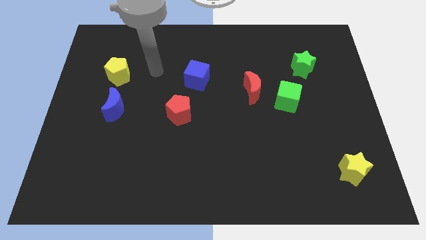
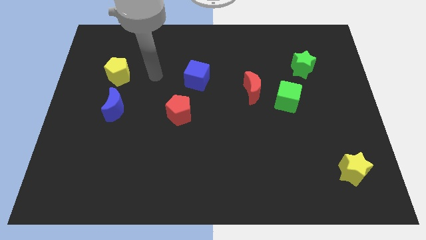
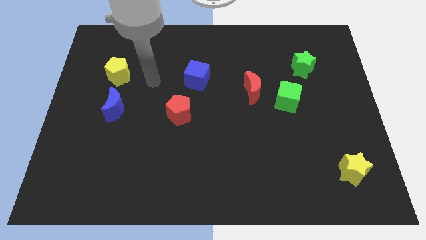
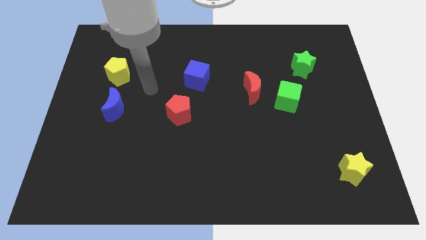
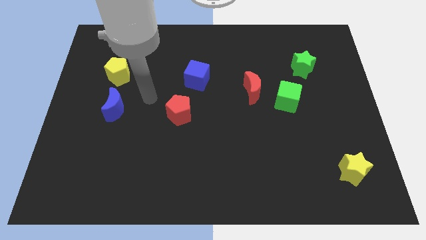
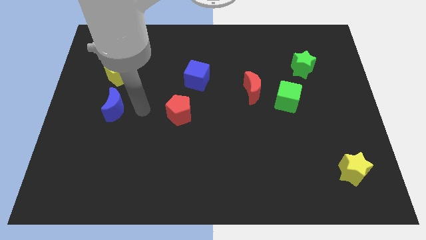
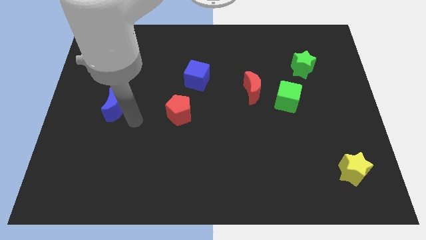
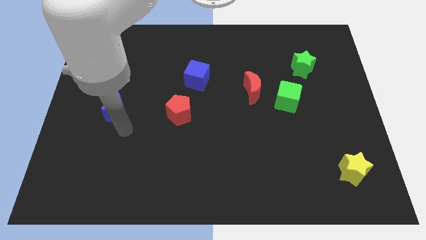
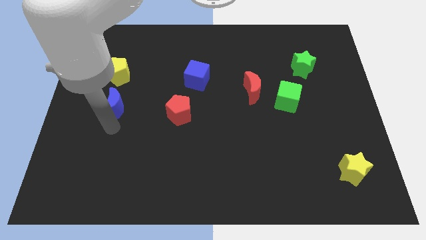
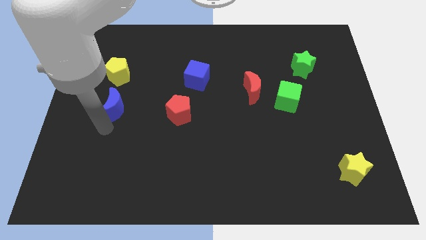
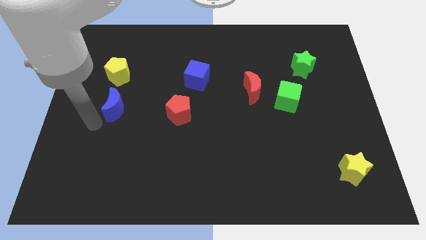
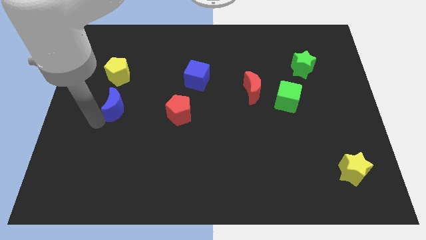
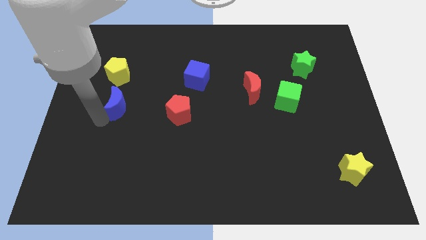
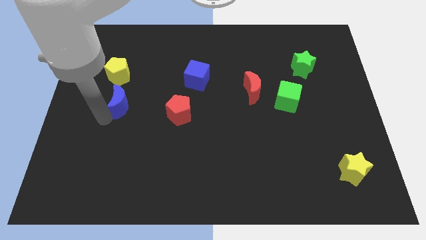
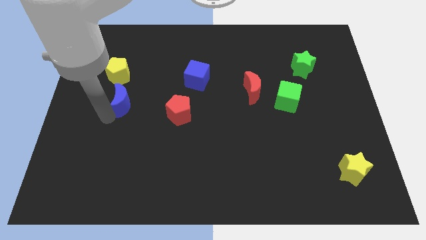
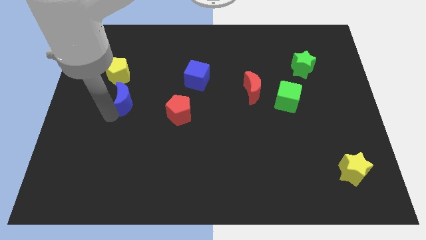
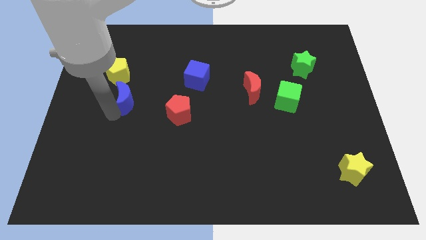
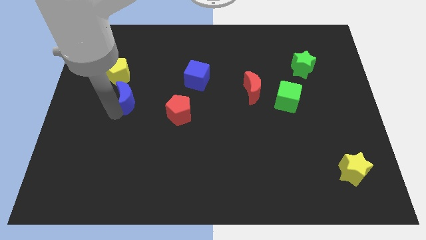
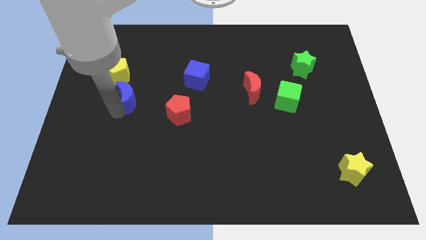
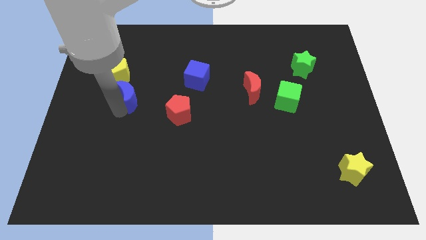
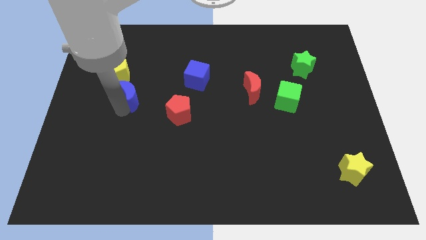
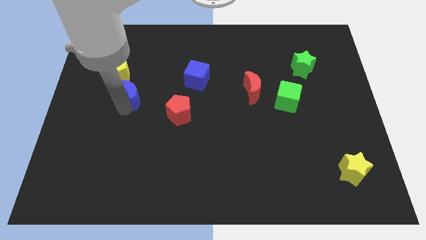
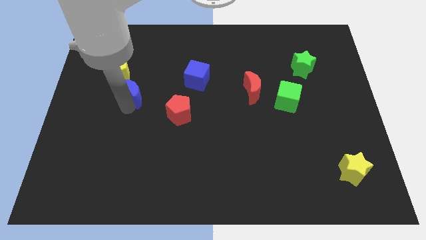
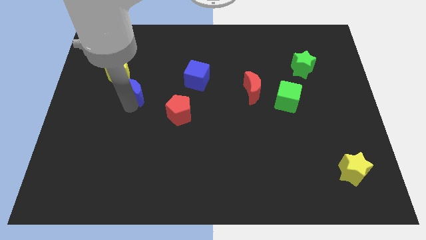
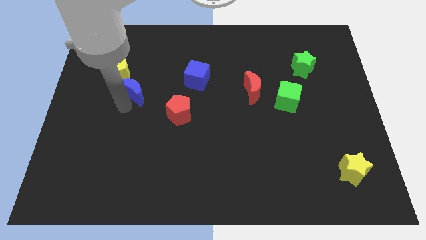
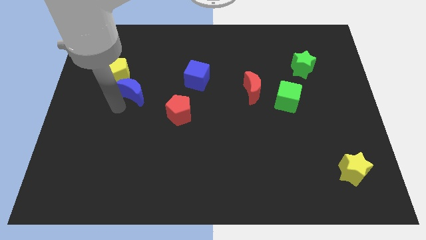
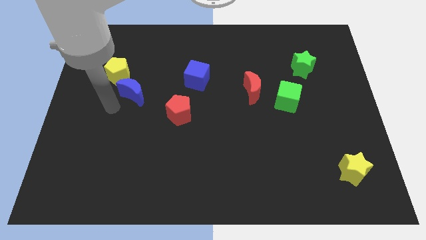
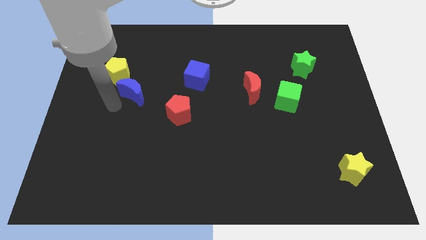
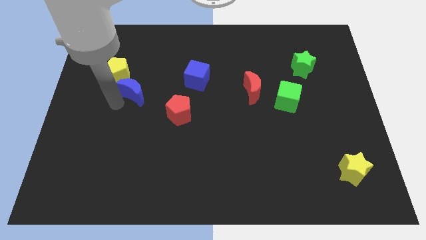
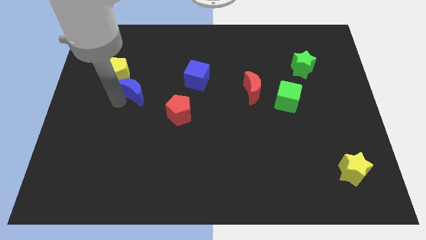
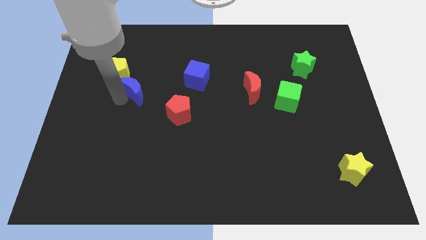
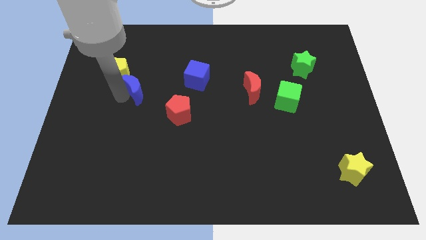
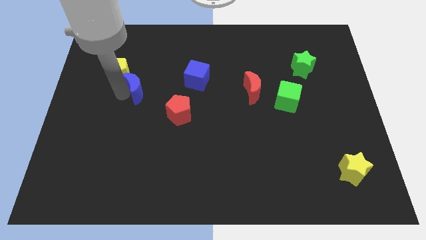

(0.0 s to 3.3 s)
move the blue moon a little up and to the right

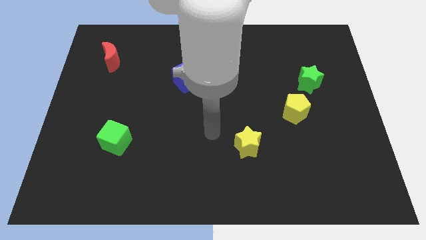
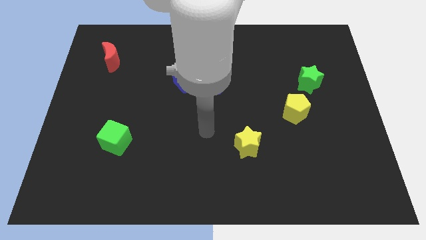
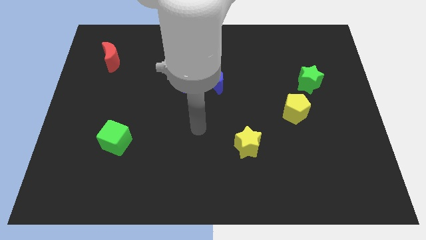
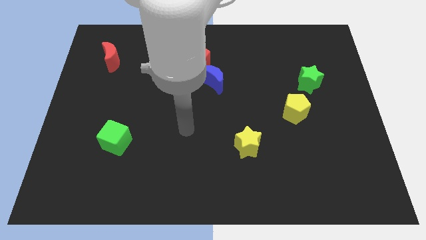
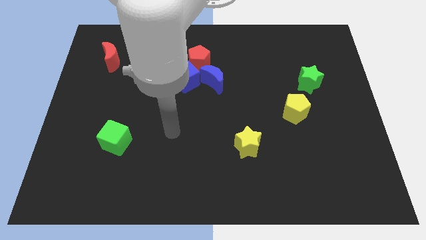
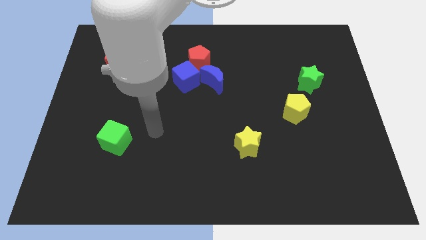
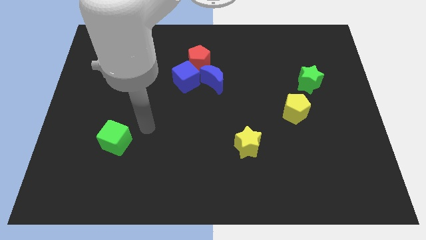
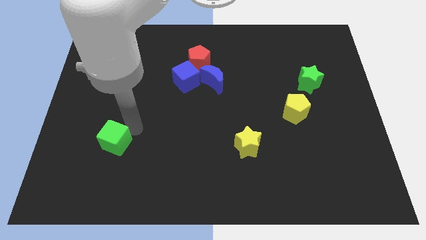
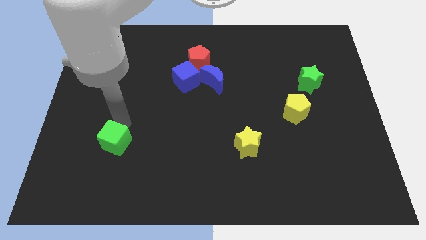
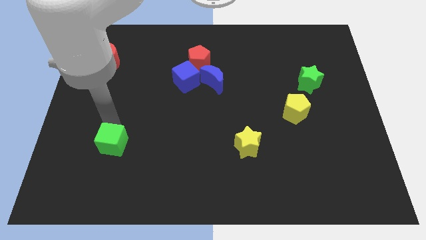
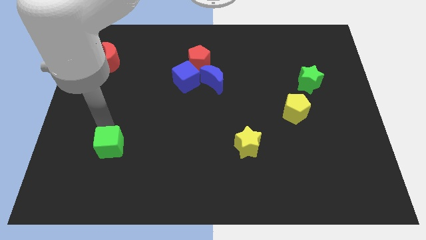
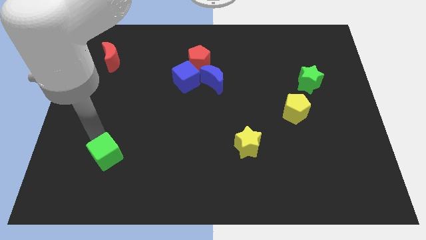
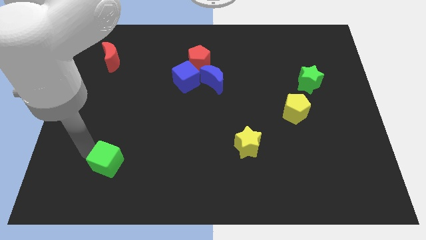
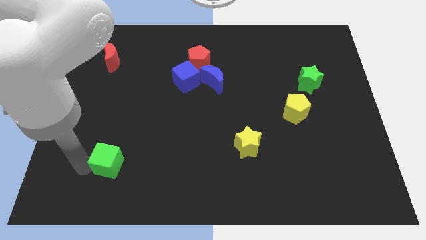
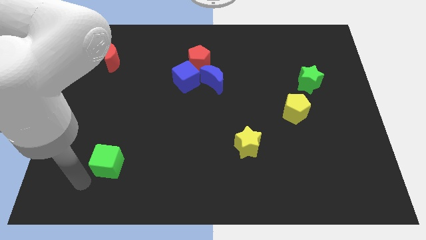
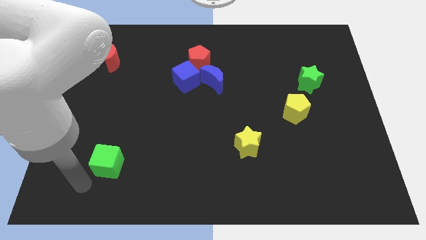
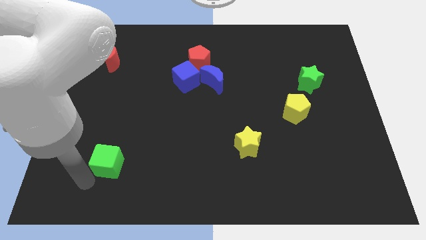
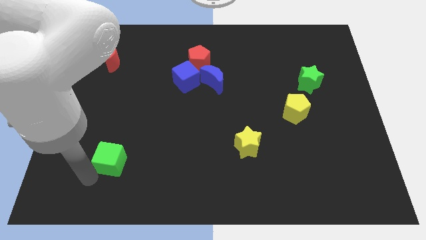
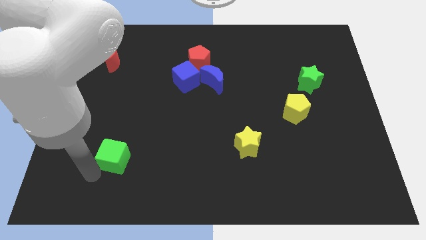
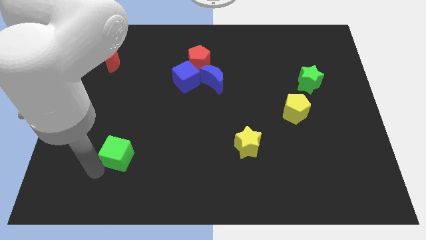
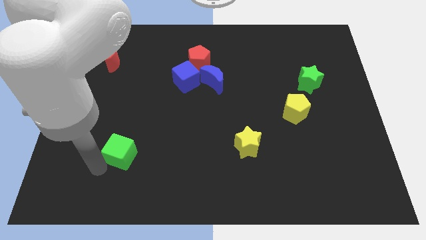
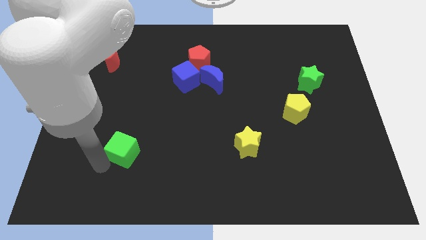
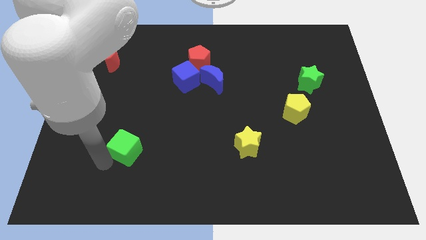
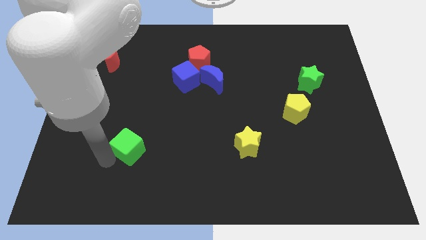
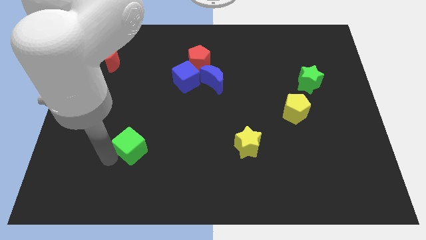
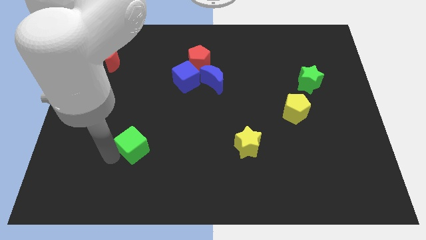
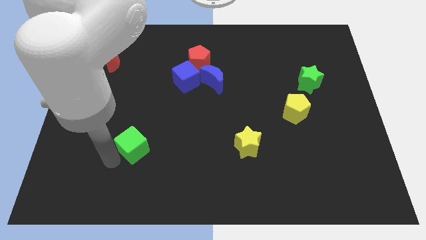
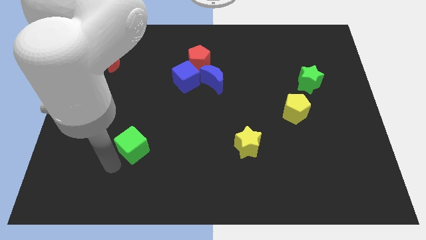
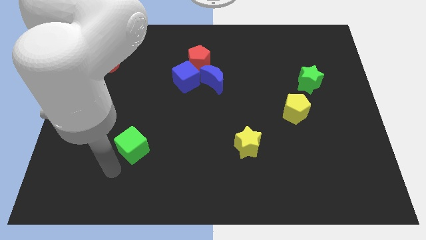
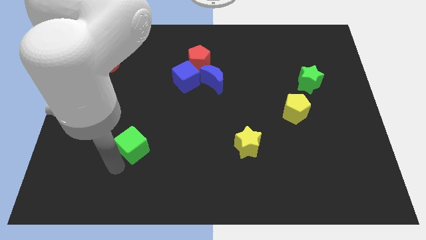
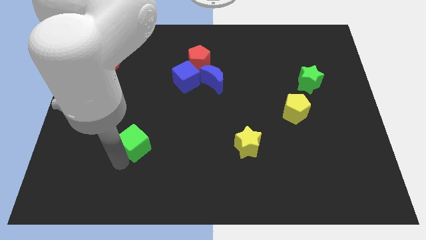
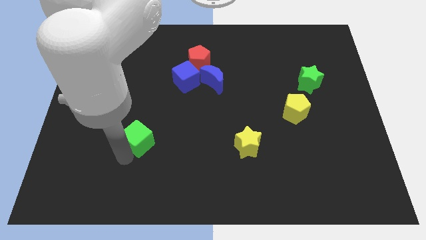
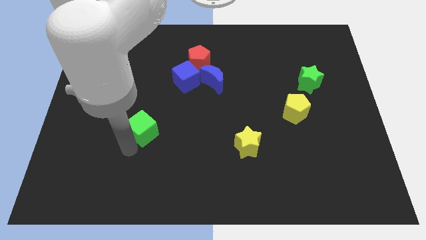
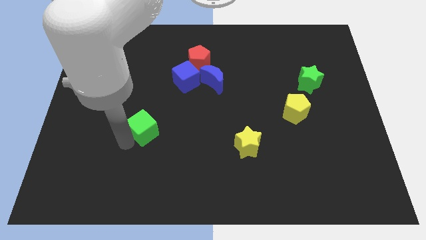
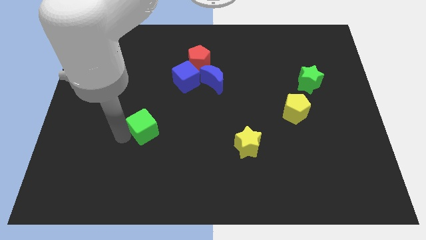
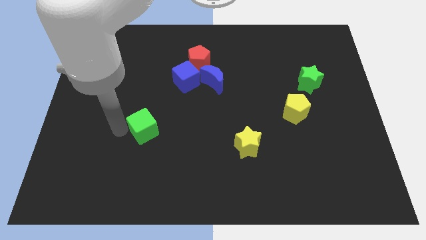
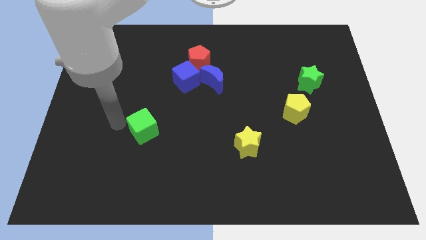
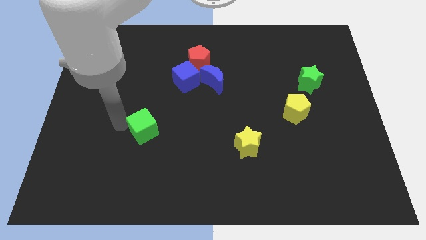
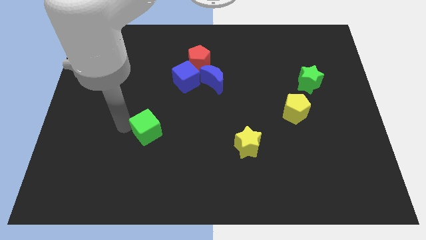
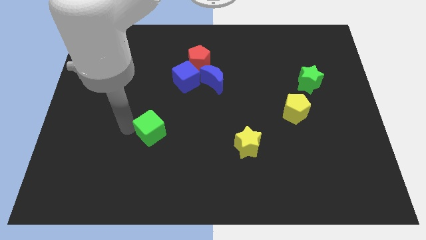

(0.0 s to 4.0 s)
push the green cube to the right a bit

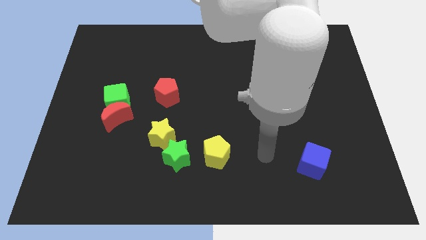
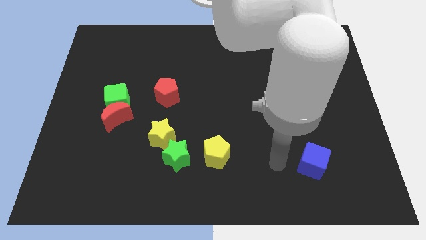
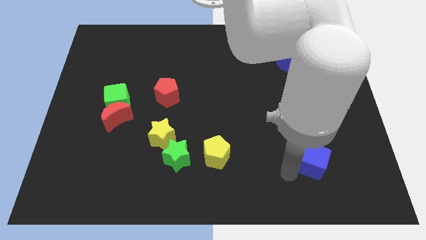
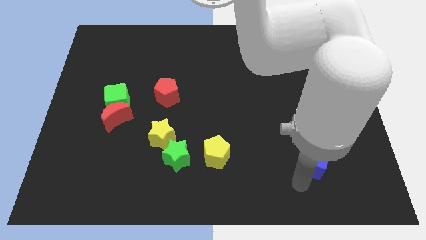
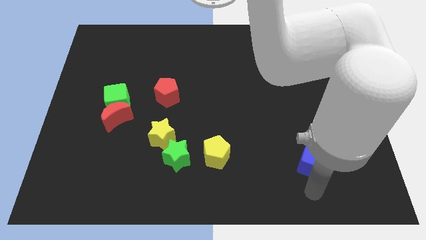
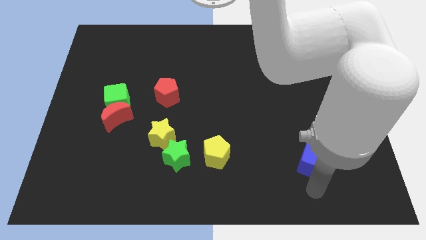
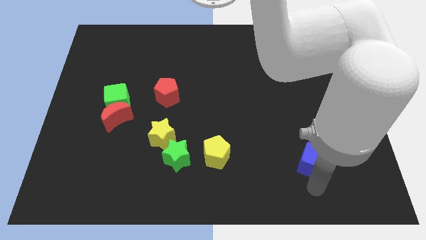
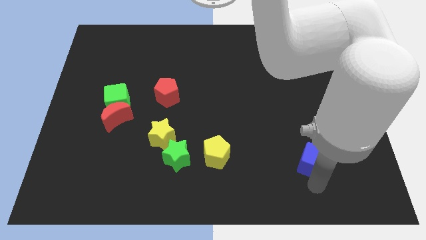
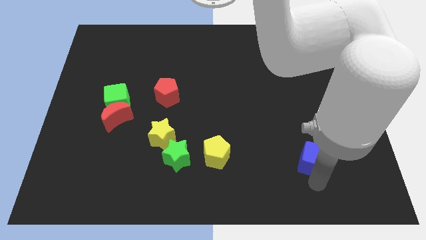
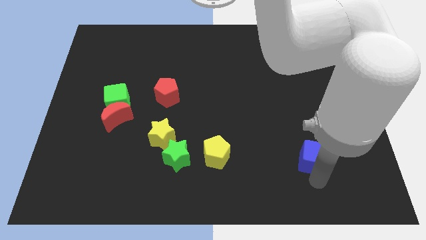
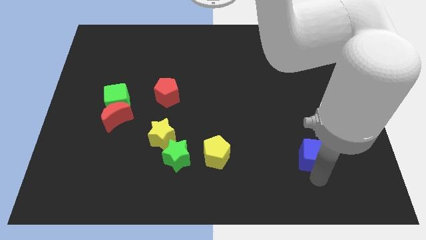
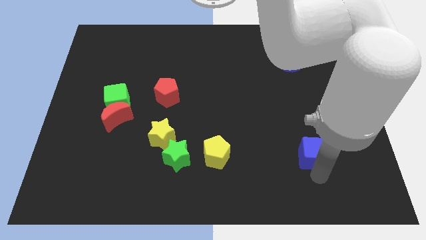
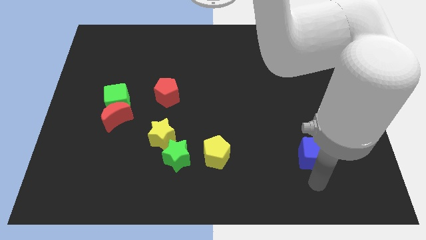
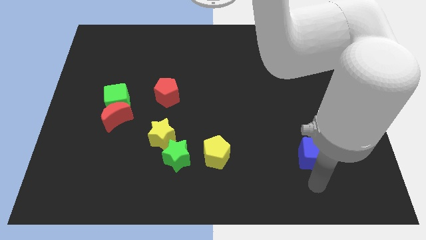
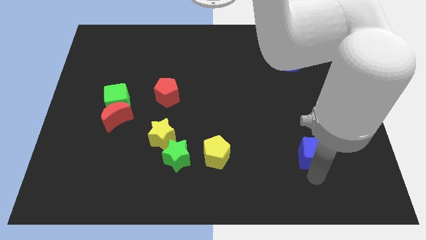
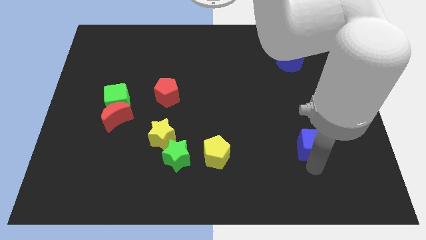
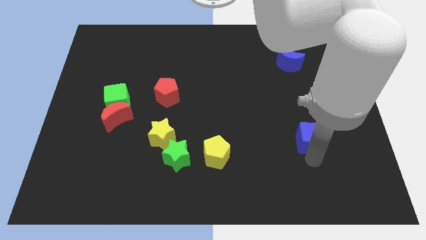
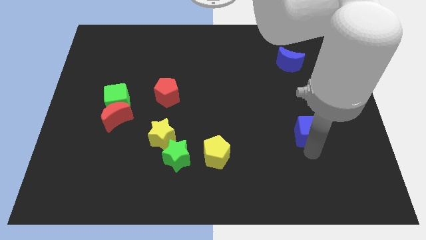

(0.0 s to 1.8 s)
slightly push the blue cube up
